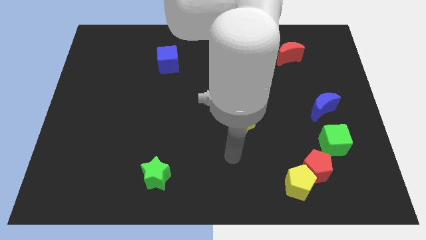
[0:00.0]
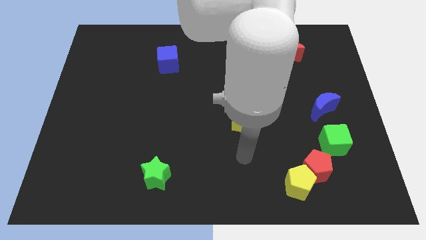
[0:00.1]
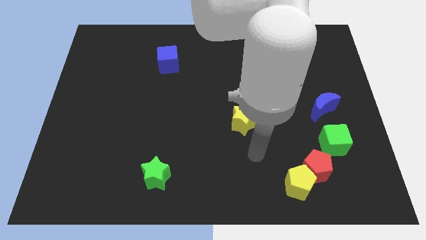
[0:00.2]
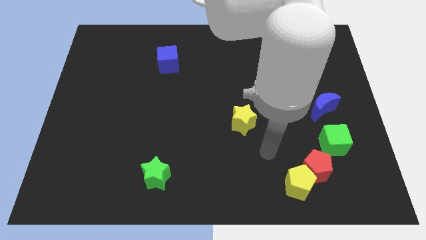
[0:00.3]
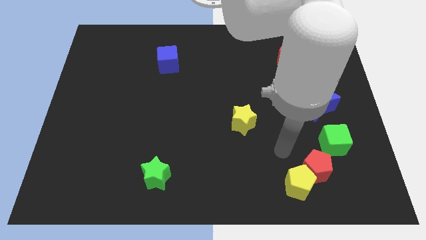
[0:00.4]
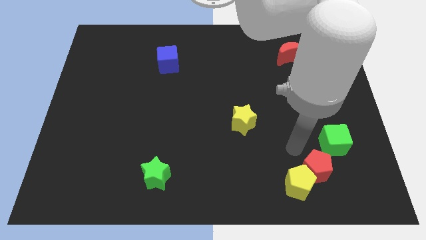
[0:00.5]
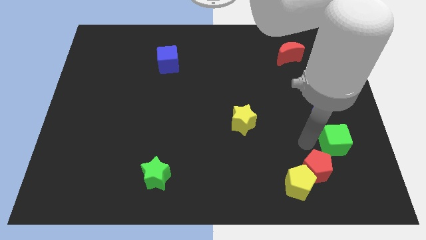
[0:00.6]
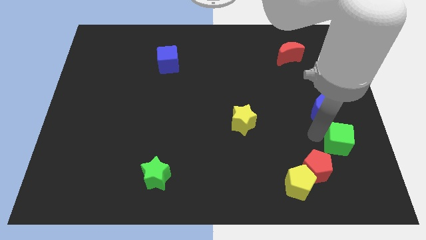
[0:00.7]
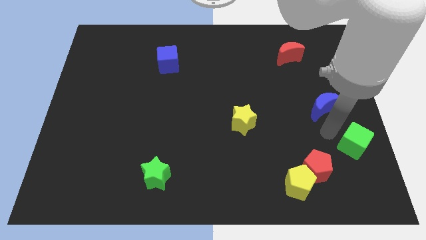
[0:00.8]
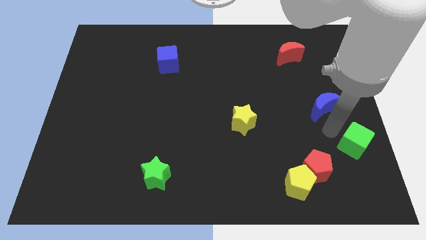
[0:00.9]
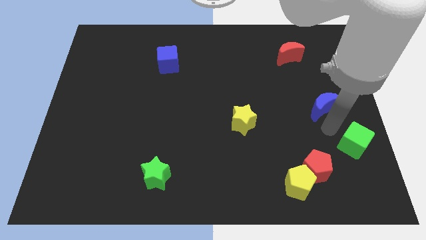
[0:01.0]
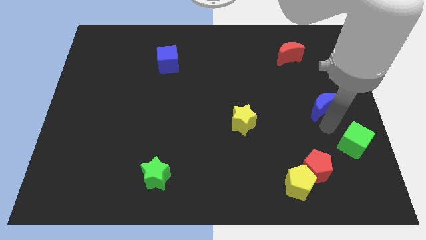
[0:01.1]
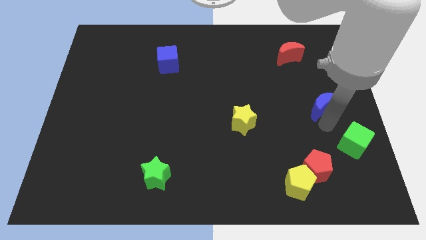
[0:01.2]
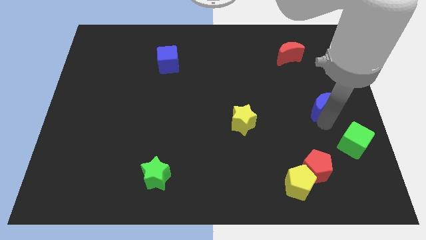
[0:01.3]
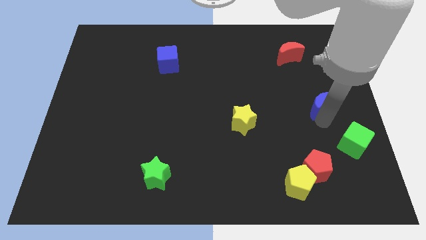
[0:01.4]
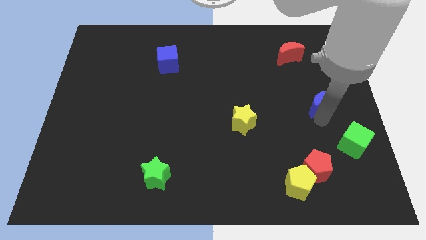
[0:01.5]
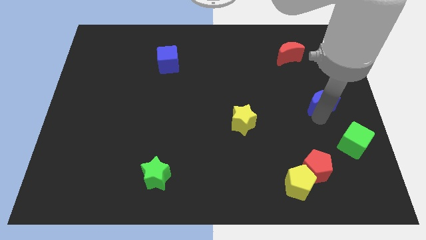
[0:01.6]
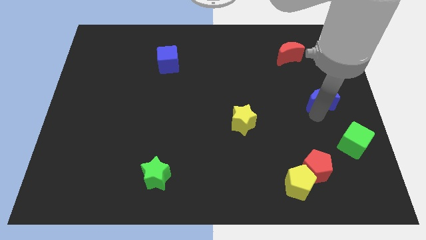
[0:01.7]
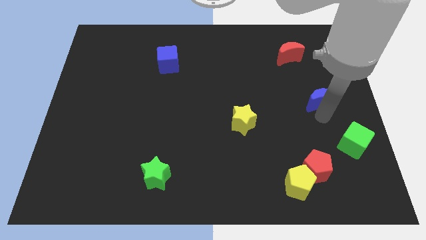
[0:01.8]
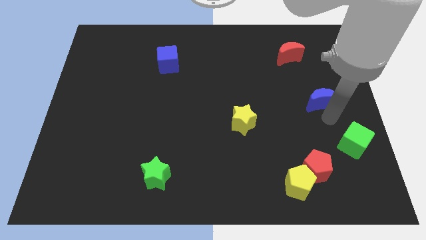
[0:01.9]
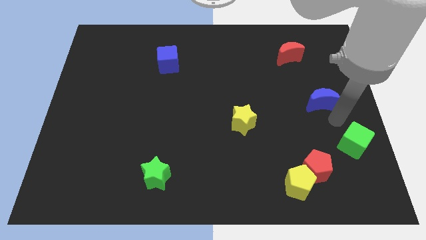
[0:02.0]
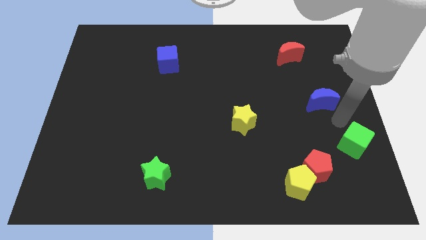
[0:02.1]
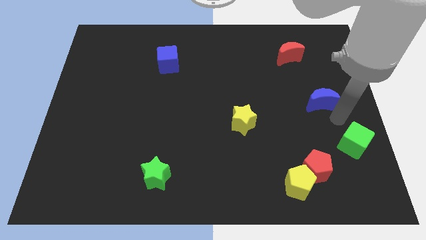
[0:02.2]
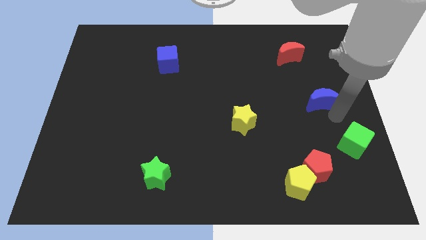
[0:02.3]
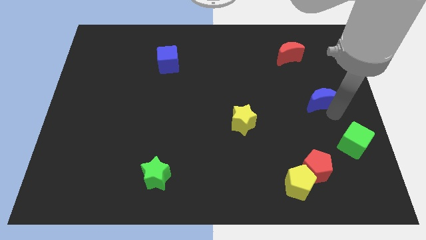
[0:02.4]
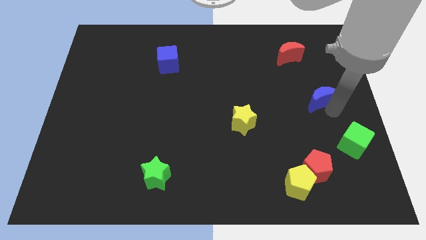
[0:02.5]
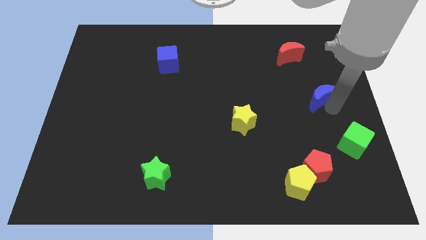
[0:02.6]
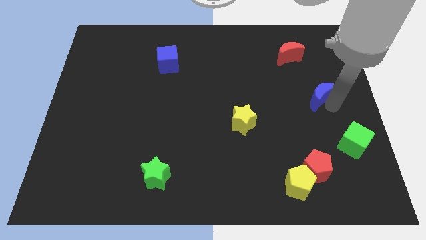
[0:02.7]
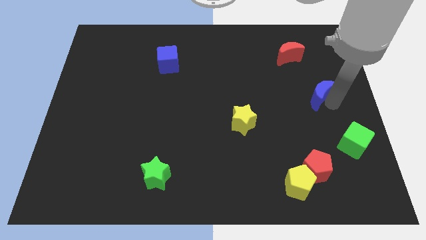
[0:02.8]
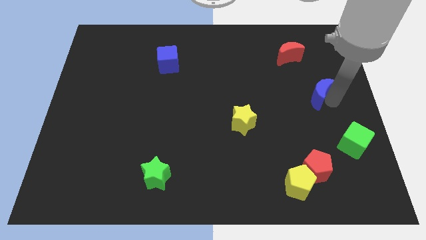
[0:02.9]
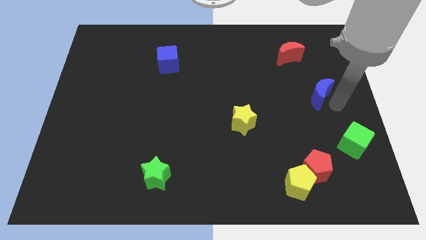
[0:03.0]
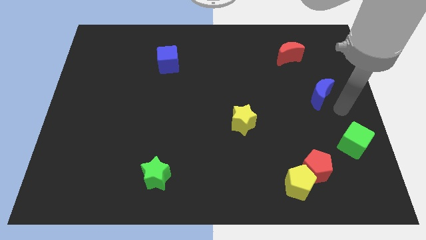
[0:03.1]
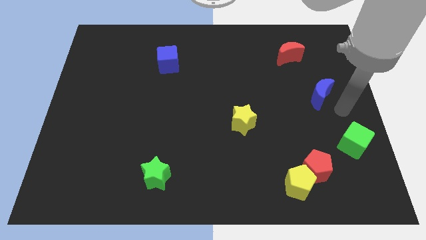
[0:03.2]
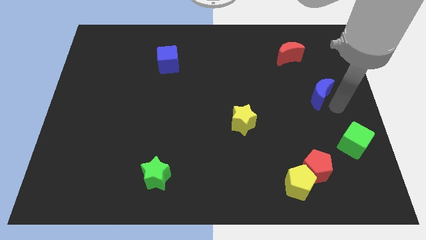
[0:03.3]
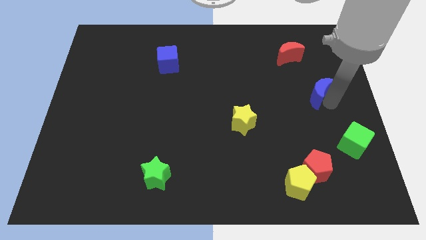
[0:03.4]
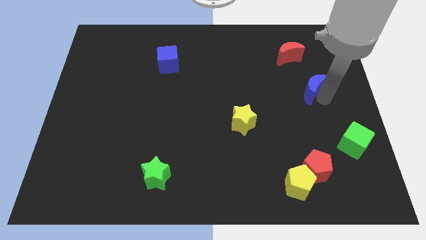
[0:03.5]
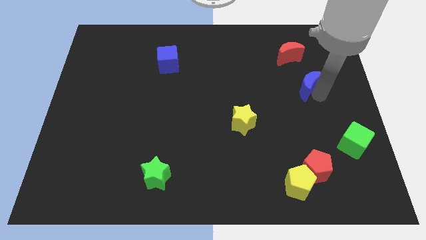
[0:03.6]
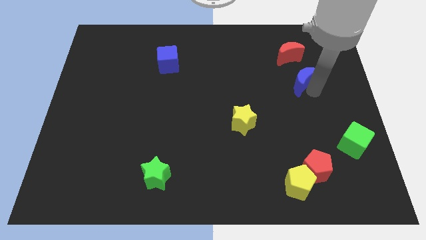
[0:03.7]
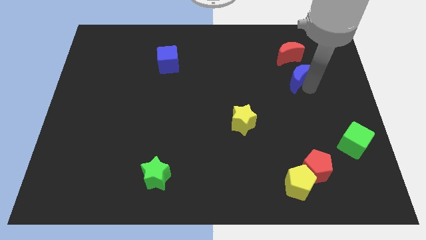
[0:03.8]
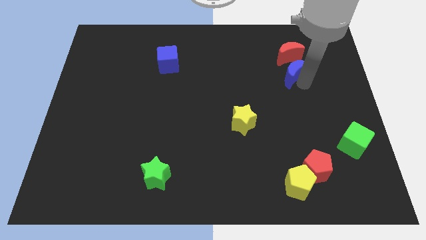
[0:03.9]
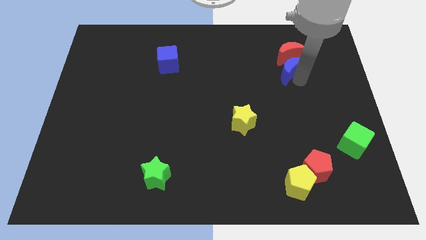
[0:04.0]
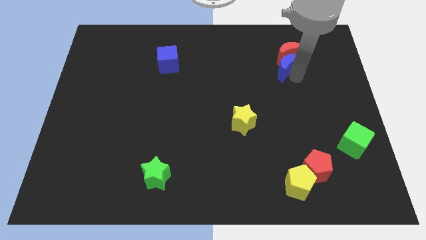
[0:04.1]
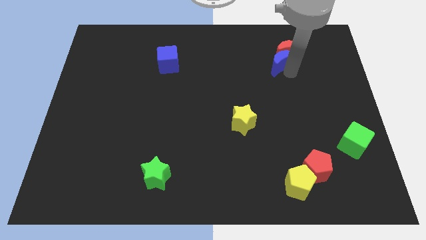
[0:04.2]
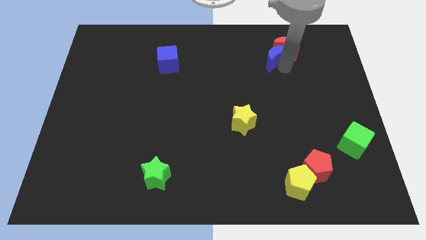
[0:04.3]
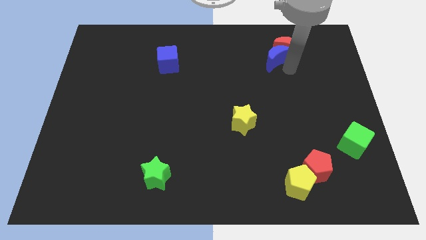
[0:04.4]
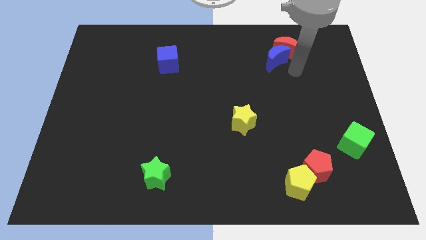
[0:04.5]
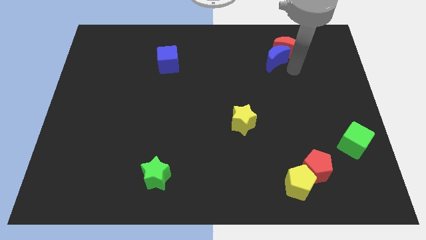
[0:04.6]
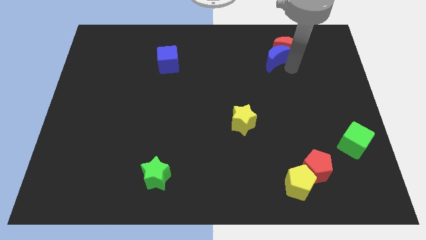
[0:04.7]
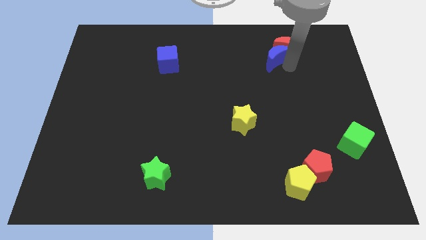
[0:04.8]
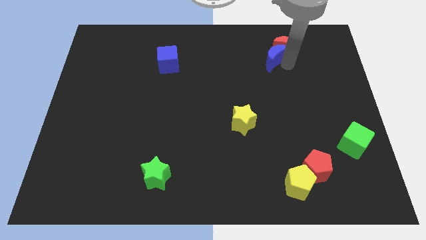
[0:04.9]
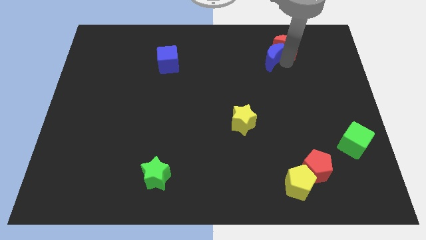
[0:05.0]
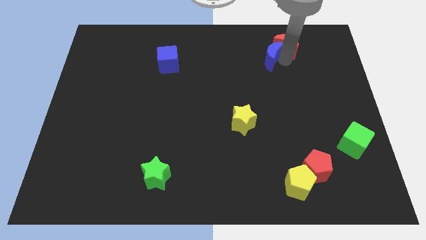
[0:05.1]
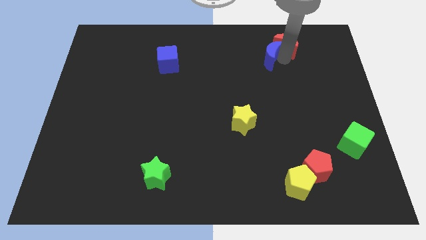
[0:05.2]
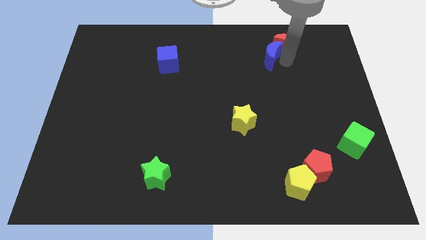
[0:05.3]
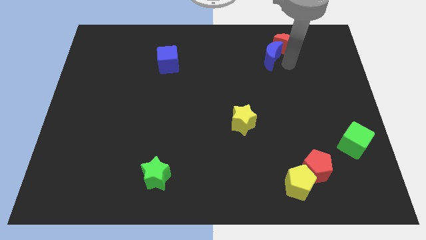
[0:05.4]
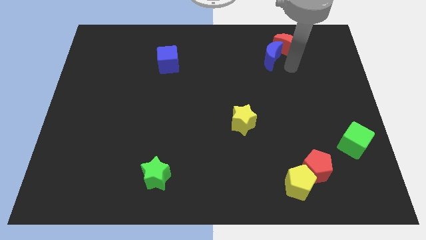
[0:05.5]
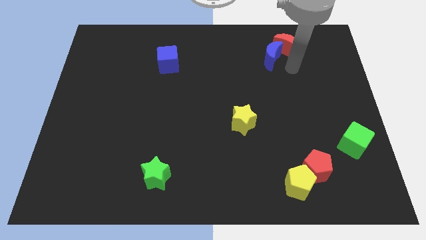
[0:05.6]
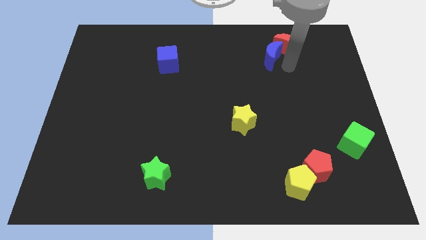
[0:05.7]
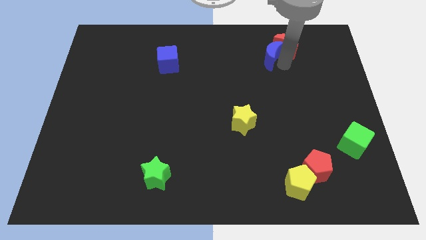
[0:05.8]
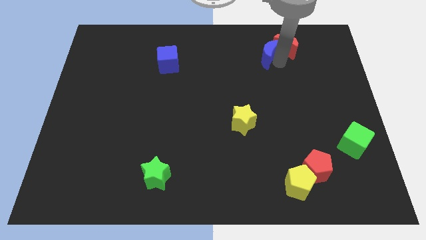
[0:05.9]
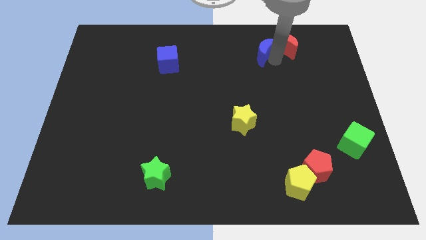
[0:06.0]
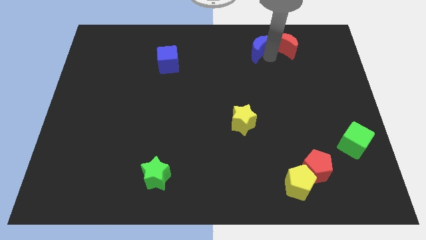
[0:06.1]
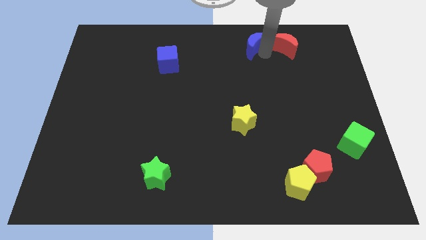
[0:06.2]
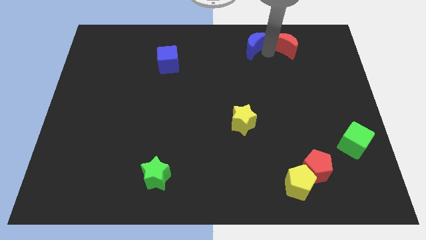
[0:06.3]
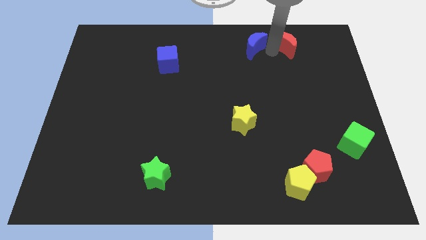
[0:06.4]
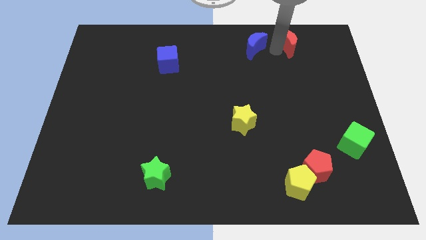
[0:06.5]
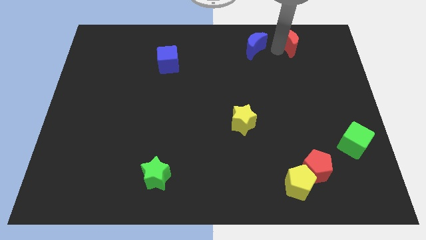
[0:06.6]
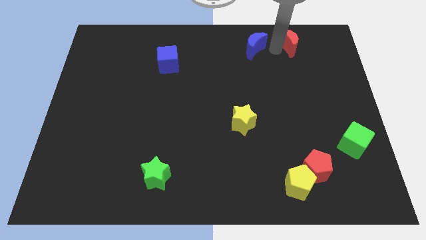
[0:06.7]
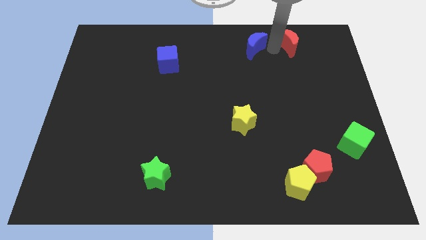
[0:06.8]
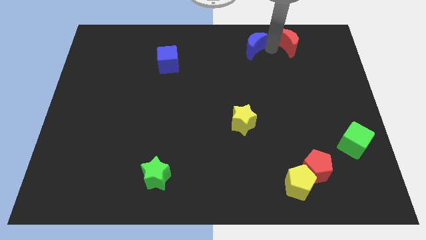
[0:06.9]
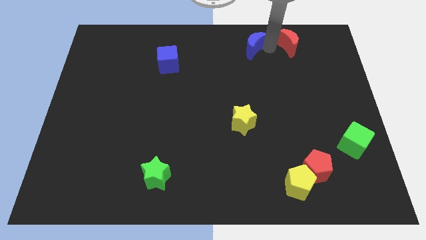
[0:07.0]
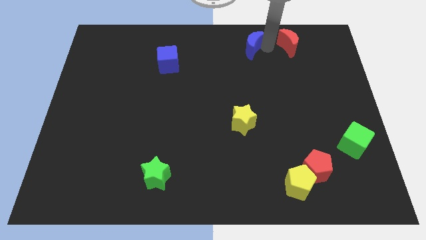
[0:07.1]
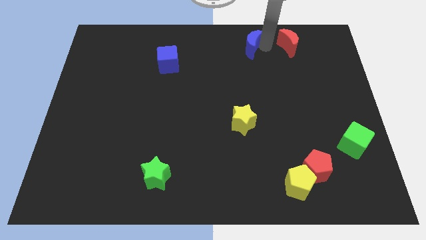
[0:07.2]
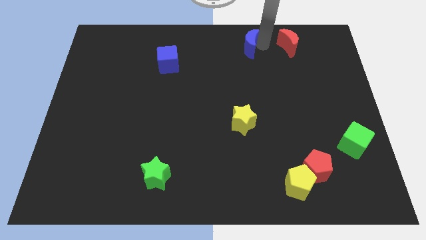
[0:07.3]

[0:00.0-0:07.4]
slide the blue moon to the top
